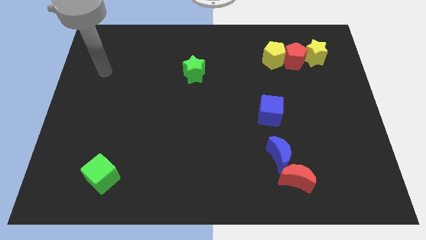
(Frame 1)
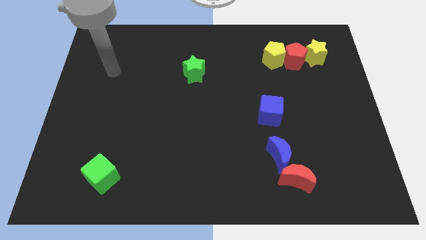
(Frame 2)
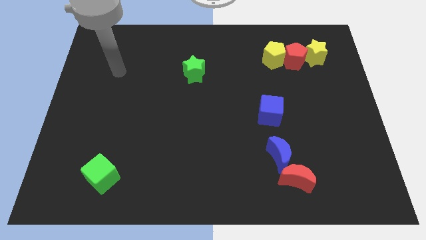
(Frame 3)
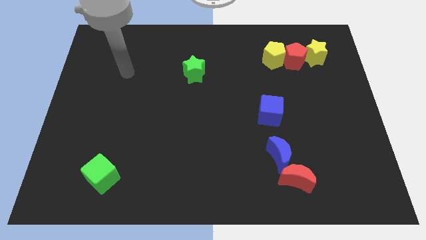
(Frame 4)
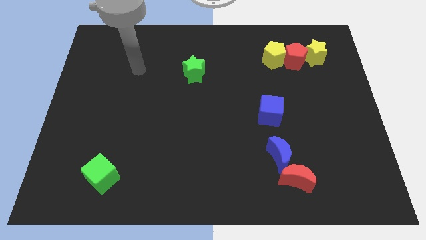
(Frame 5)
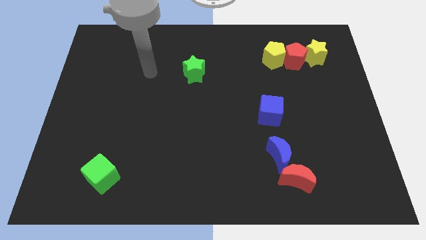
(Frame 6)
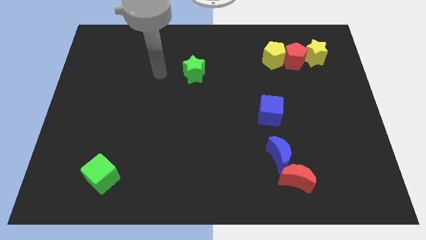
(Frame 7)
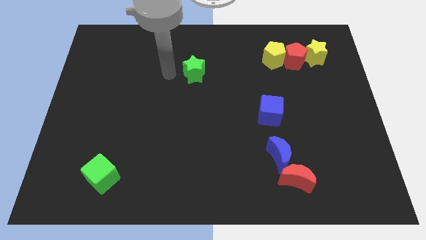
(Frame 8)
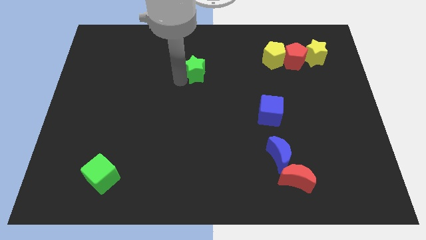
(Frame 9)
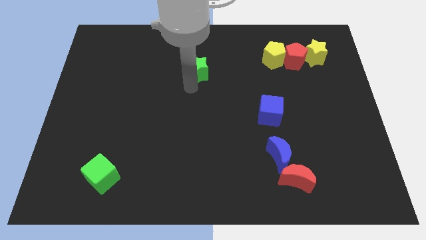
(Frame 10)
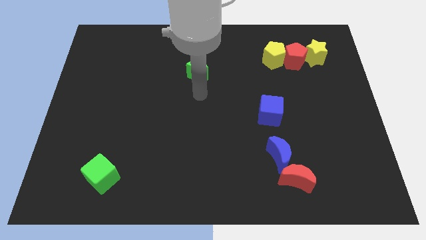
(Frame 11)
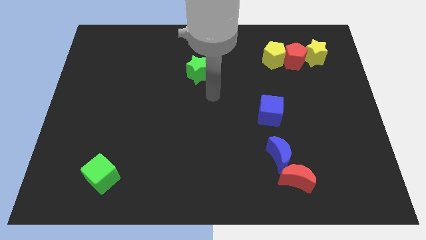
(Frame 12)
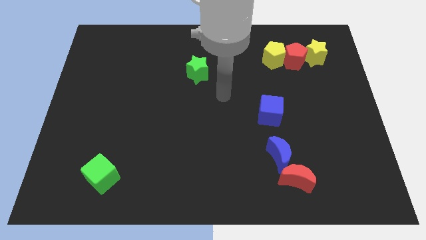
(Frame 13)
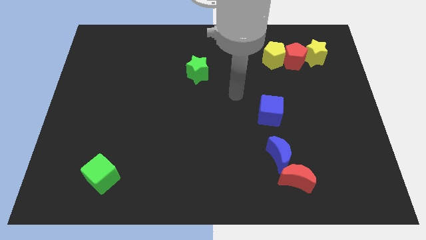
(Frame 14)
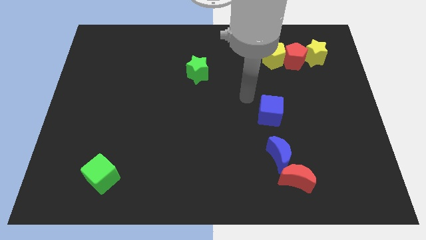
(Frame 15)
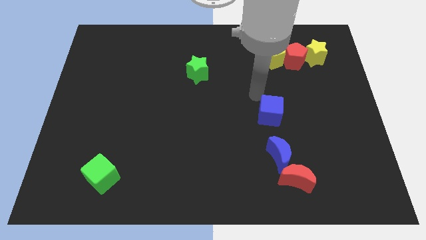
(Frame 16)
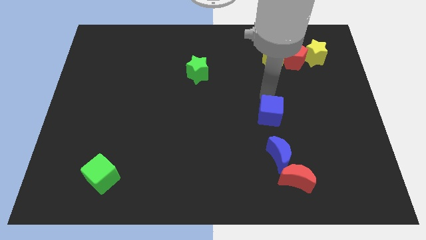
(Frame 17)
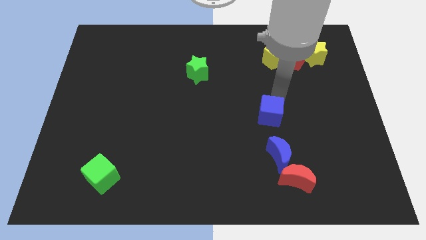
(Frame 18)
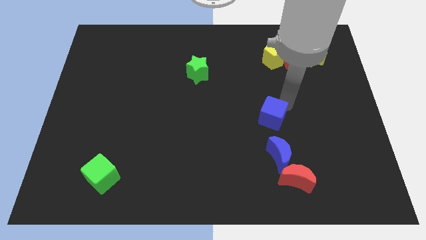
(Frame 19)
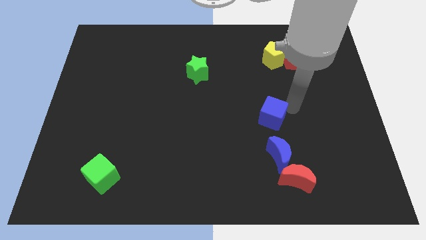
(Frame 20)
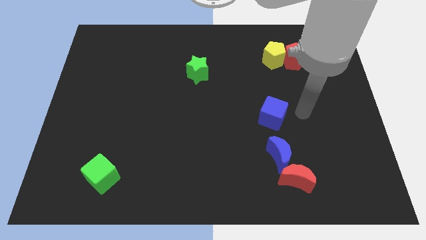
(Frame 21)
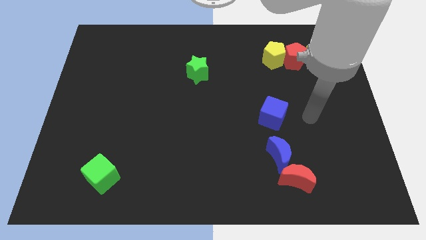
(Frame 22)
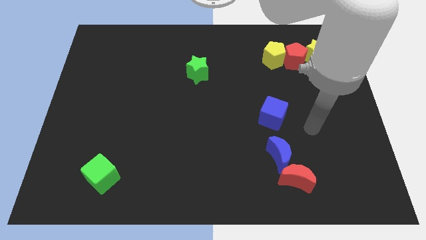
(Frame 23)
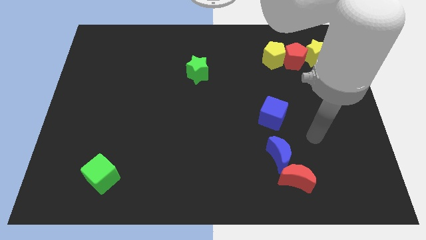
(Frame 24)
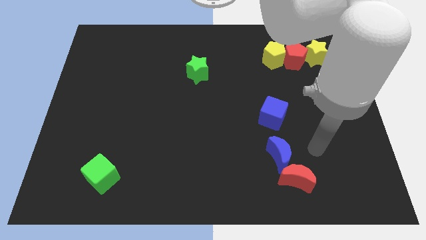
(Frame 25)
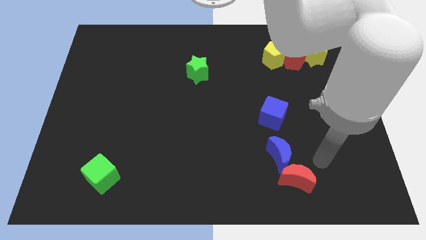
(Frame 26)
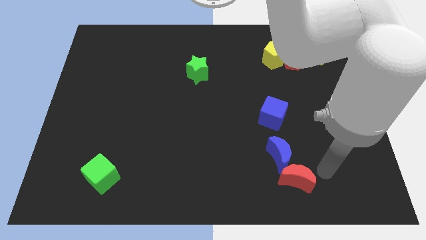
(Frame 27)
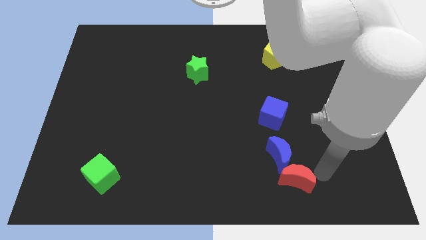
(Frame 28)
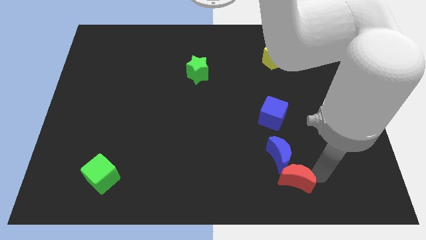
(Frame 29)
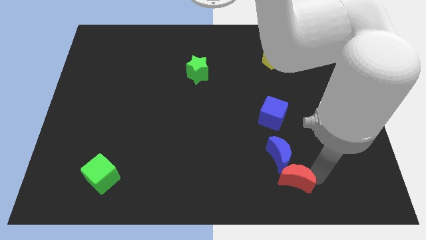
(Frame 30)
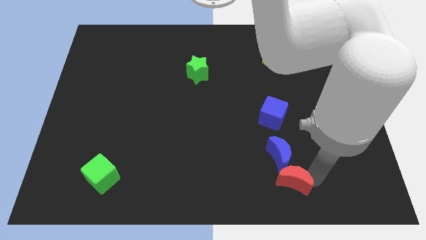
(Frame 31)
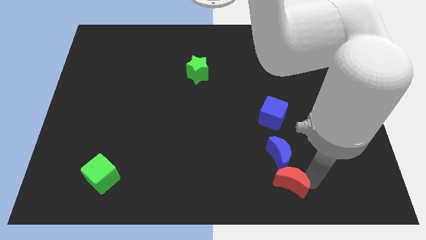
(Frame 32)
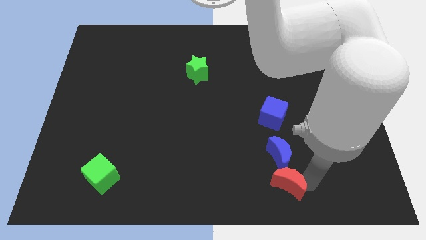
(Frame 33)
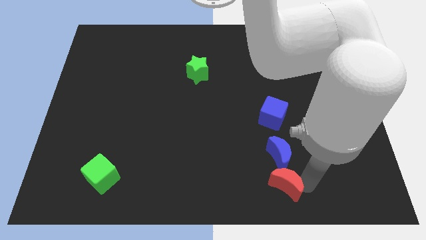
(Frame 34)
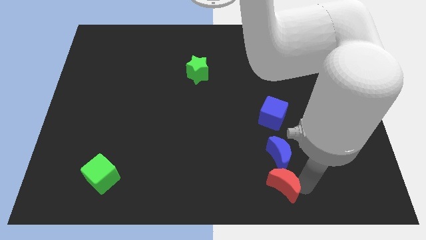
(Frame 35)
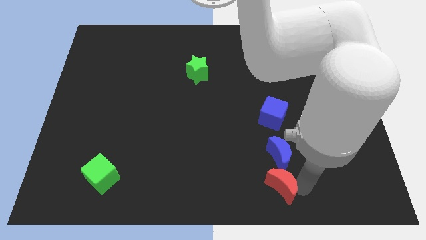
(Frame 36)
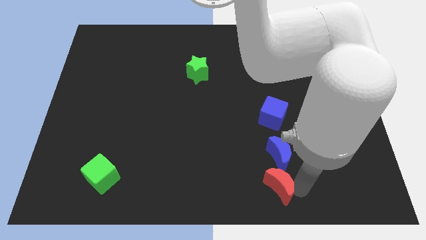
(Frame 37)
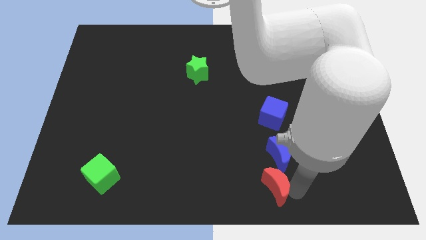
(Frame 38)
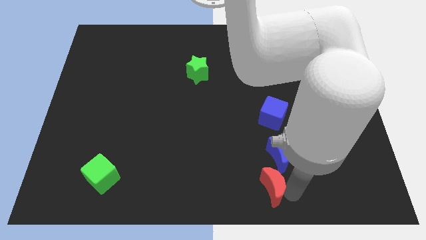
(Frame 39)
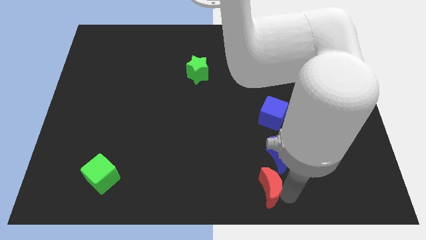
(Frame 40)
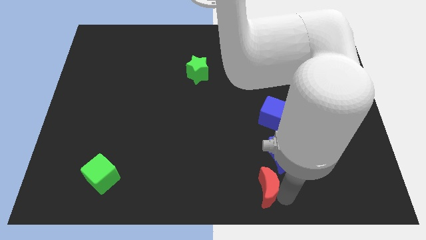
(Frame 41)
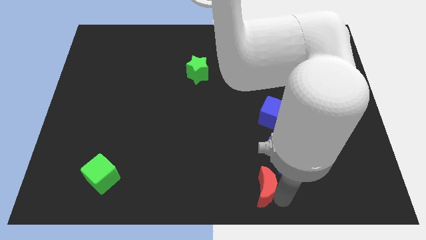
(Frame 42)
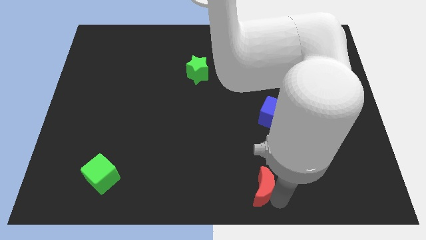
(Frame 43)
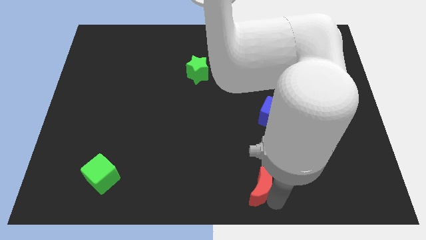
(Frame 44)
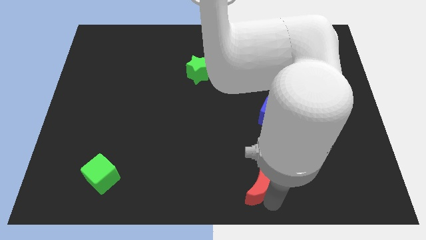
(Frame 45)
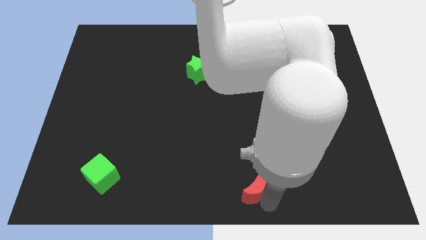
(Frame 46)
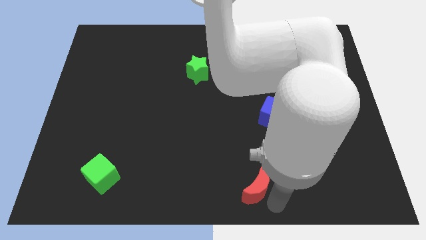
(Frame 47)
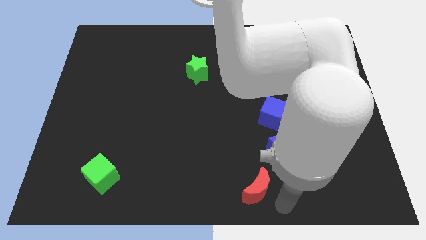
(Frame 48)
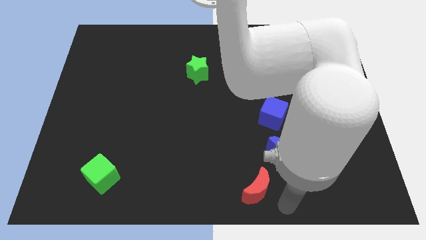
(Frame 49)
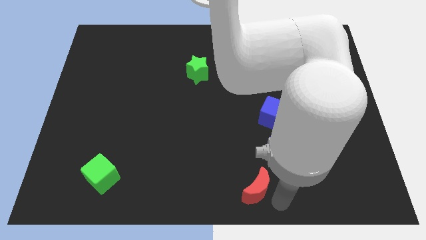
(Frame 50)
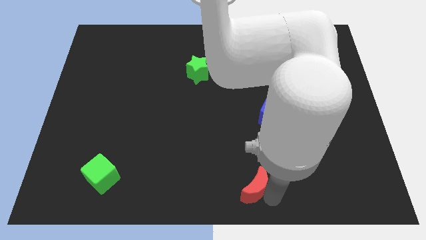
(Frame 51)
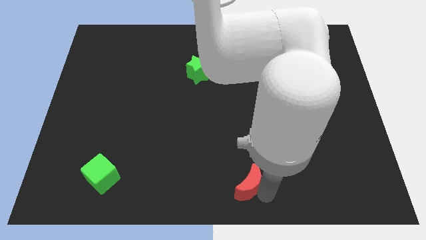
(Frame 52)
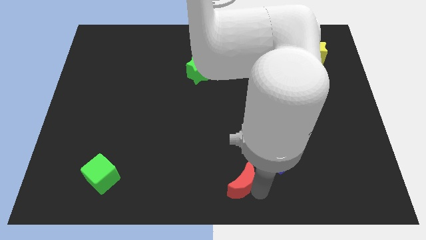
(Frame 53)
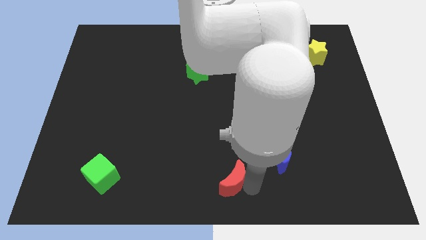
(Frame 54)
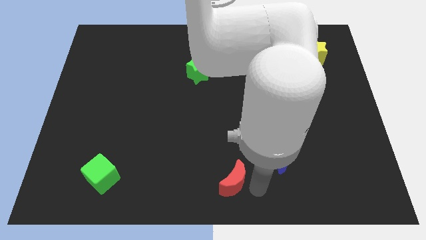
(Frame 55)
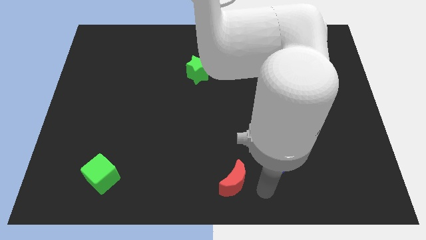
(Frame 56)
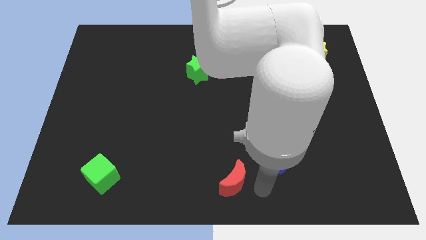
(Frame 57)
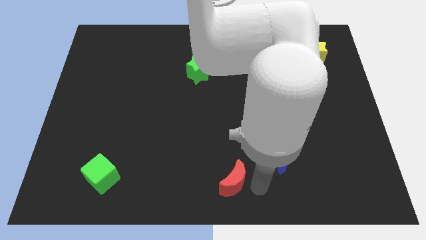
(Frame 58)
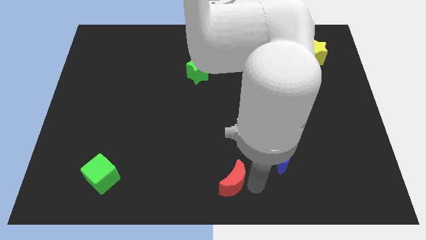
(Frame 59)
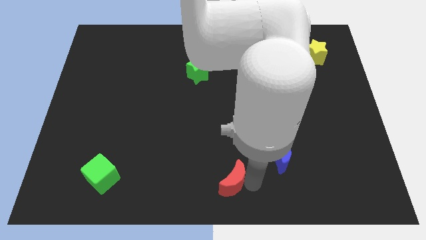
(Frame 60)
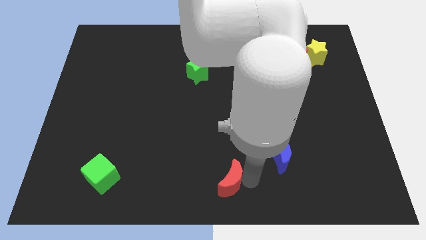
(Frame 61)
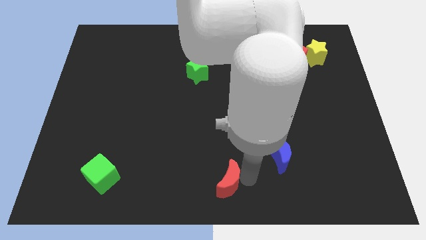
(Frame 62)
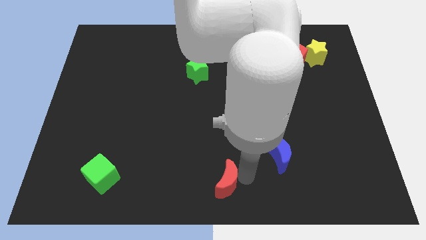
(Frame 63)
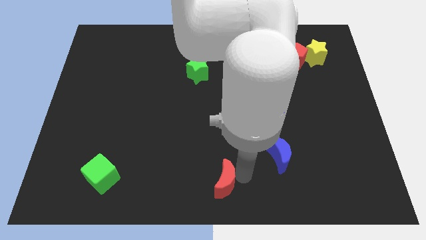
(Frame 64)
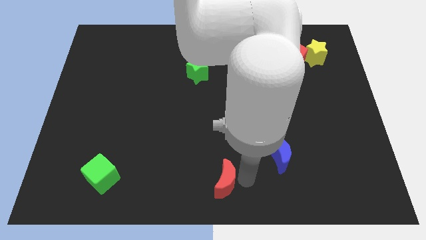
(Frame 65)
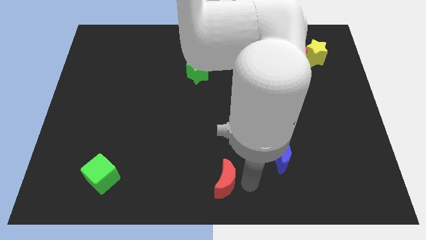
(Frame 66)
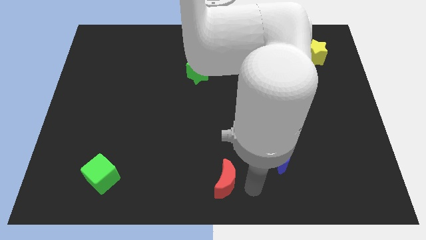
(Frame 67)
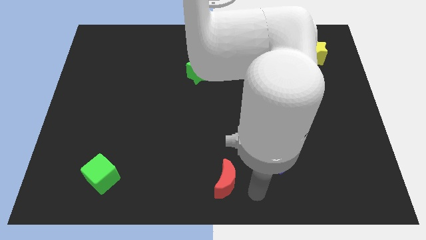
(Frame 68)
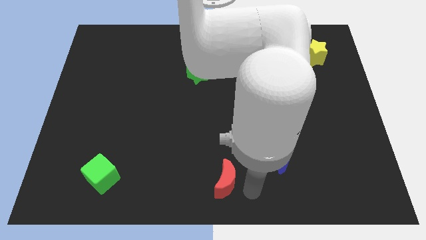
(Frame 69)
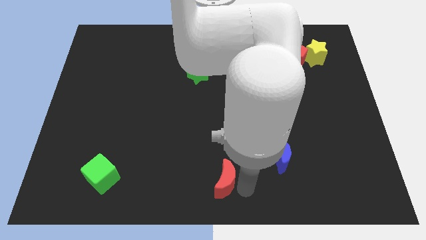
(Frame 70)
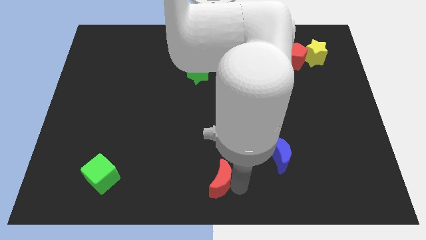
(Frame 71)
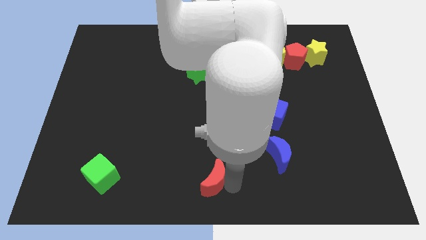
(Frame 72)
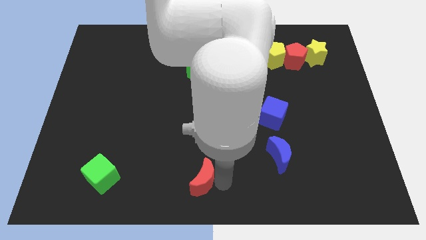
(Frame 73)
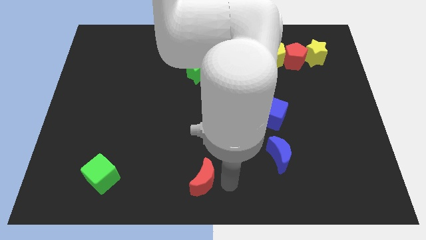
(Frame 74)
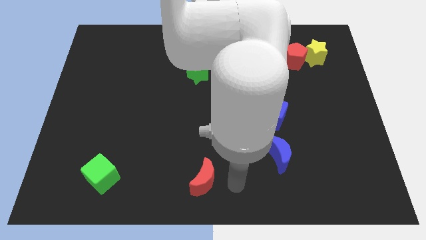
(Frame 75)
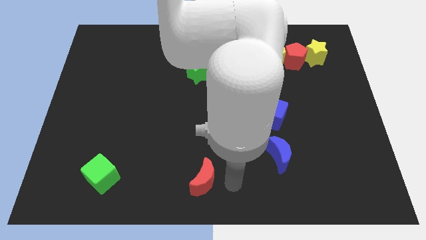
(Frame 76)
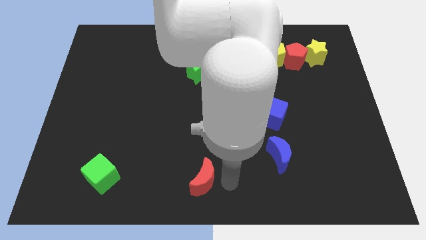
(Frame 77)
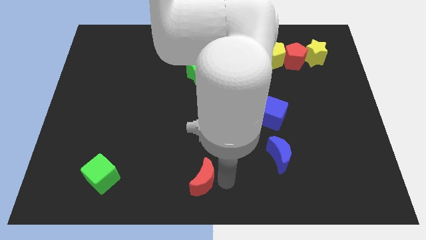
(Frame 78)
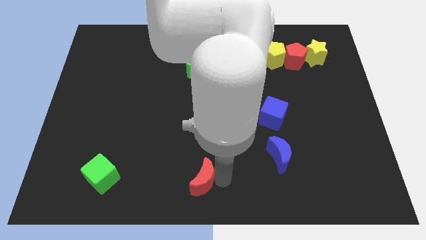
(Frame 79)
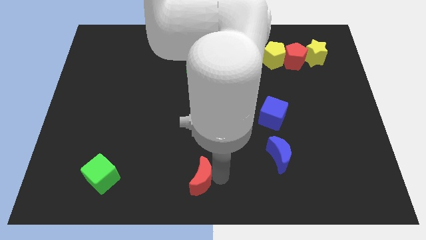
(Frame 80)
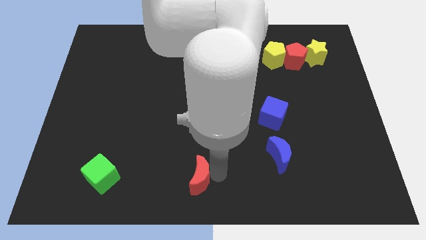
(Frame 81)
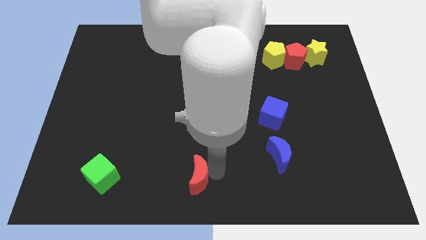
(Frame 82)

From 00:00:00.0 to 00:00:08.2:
push the red moon to the left
